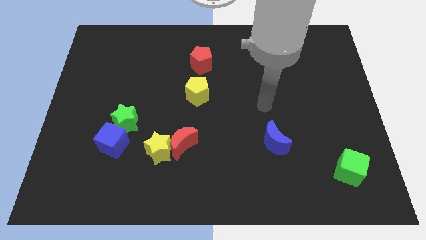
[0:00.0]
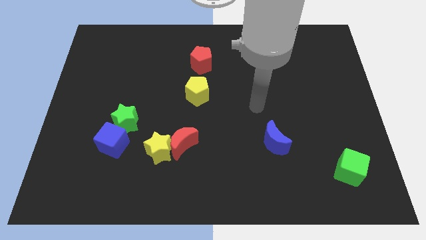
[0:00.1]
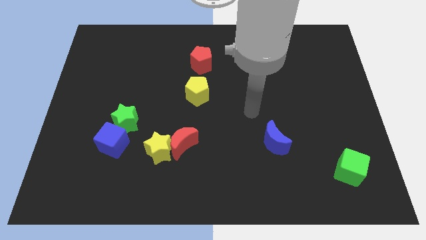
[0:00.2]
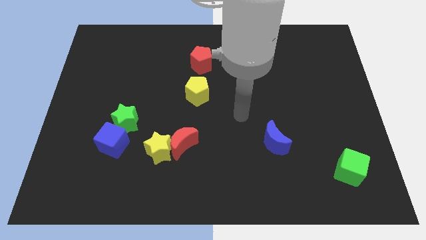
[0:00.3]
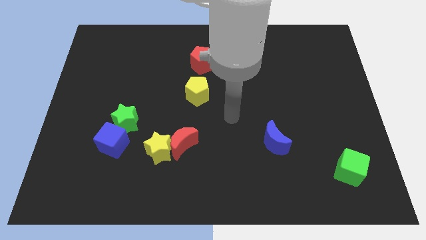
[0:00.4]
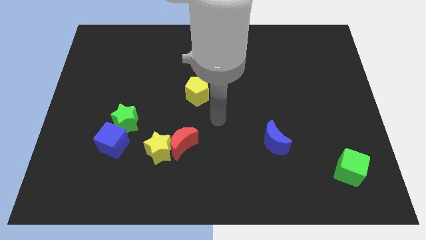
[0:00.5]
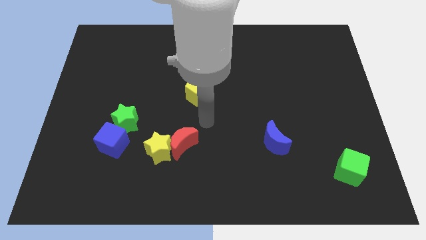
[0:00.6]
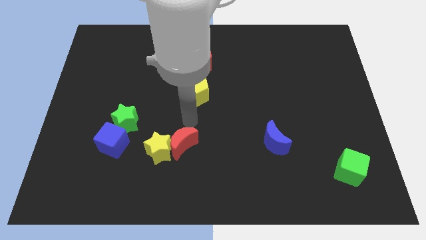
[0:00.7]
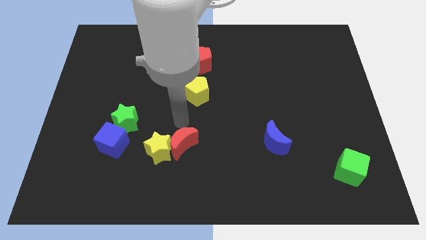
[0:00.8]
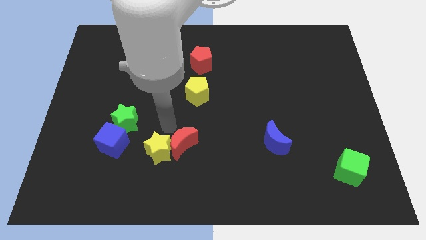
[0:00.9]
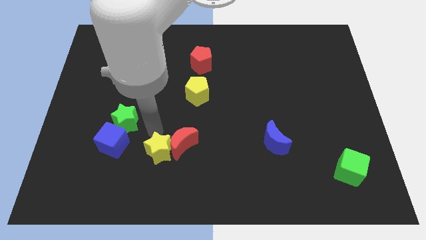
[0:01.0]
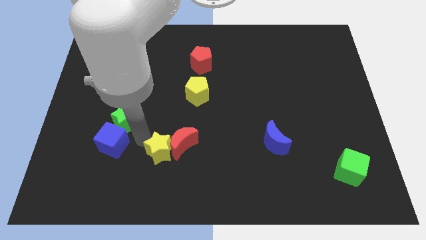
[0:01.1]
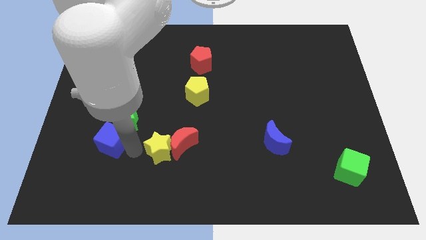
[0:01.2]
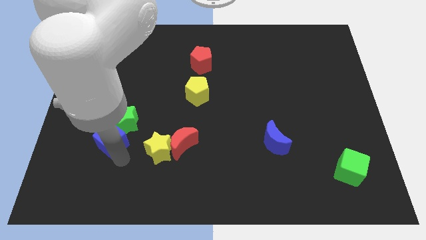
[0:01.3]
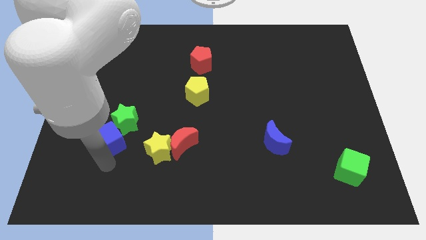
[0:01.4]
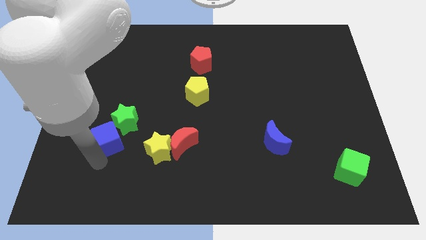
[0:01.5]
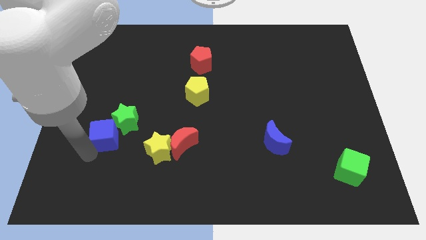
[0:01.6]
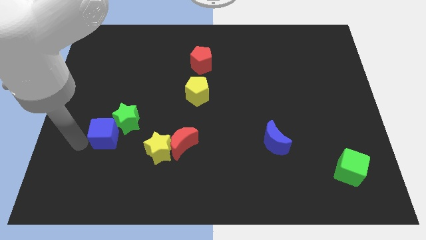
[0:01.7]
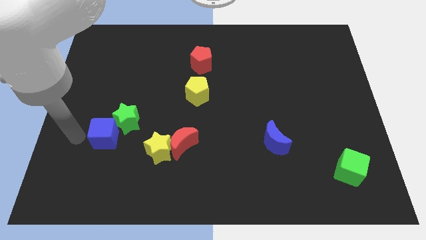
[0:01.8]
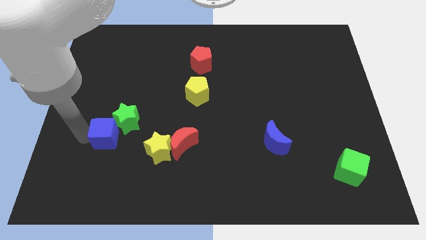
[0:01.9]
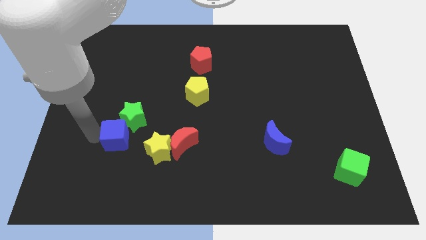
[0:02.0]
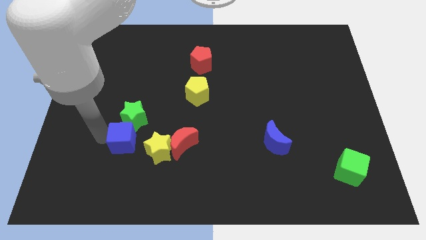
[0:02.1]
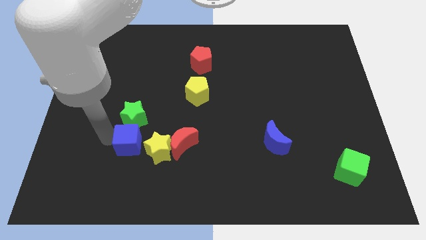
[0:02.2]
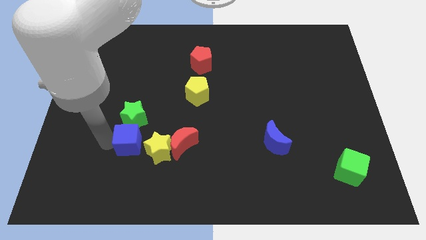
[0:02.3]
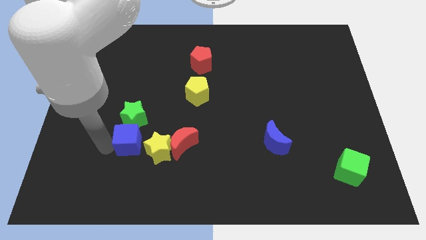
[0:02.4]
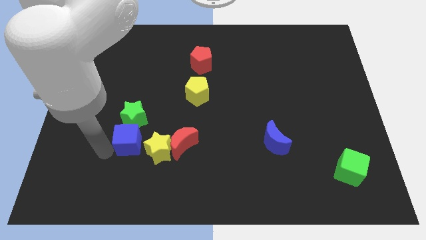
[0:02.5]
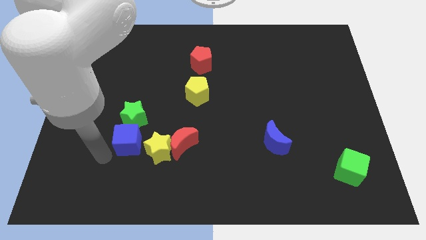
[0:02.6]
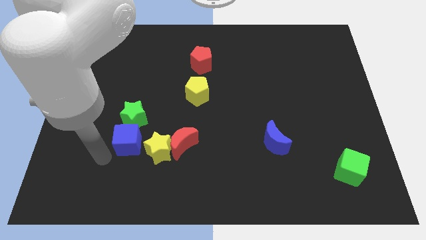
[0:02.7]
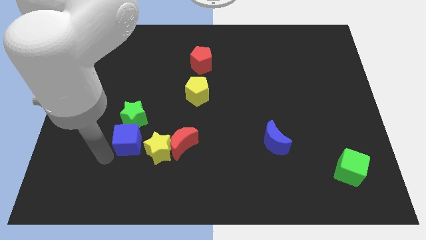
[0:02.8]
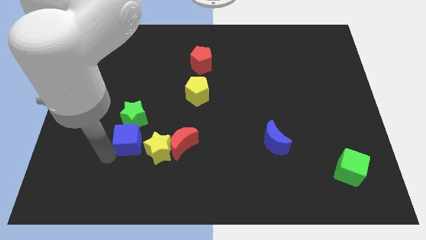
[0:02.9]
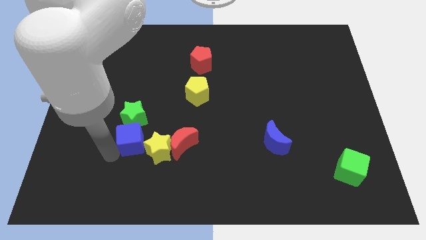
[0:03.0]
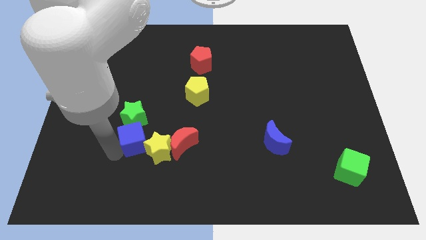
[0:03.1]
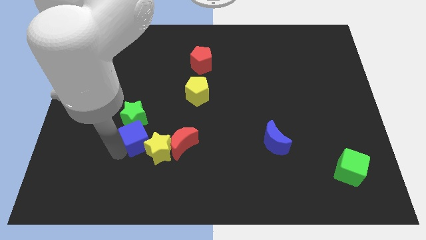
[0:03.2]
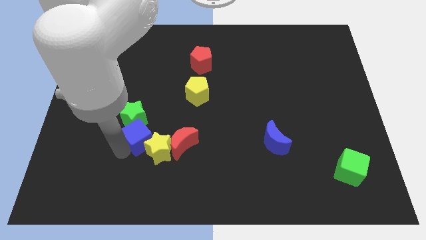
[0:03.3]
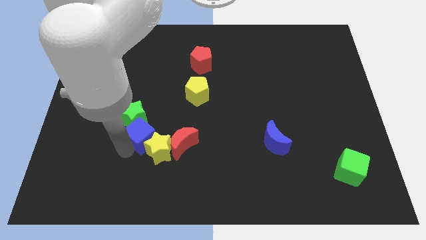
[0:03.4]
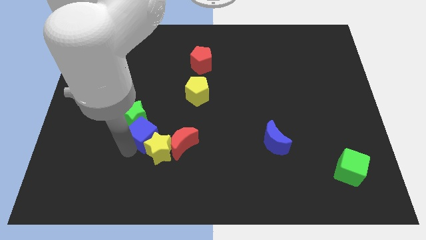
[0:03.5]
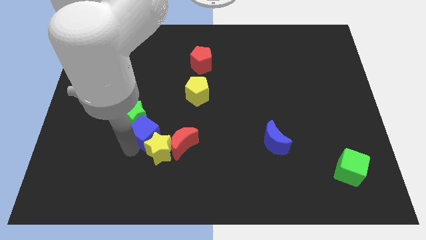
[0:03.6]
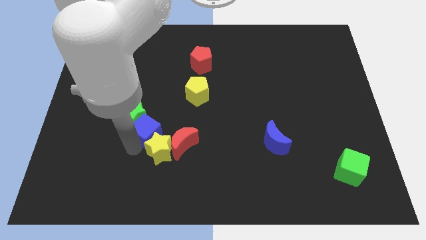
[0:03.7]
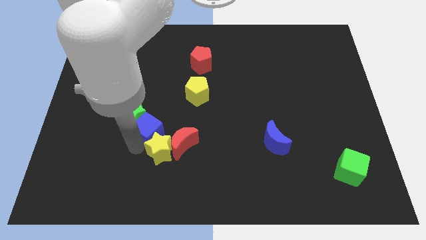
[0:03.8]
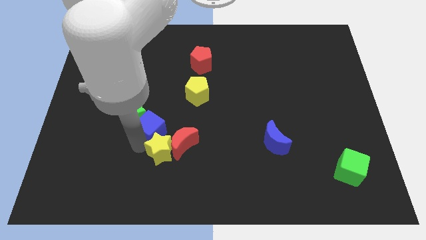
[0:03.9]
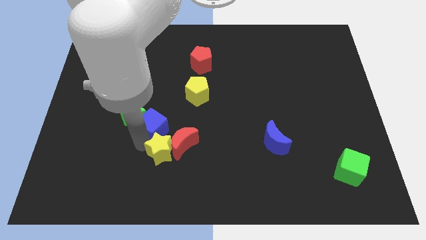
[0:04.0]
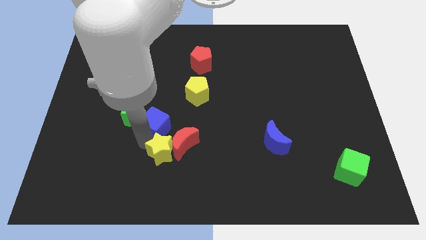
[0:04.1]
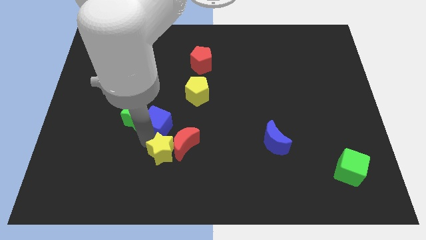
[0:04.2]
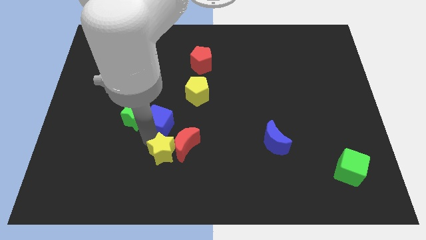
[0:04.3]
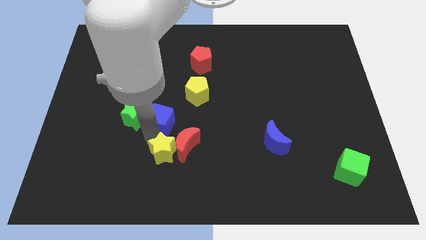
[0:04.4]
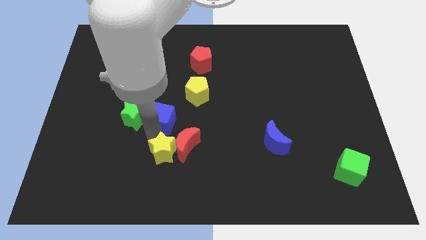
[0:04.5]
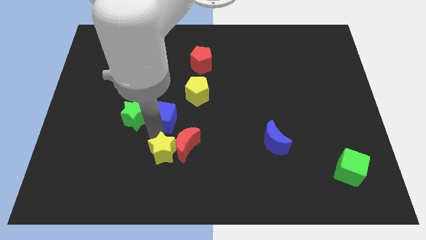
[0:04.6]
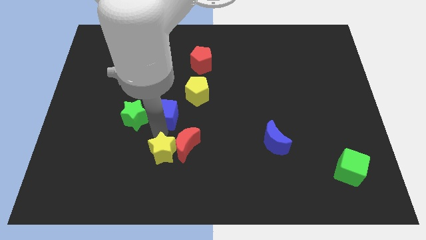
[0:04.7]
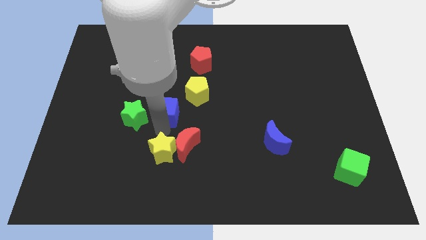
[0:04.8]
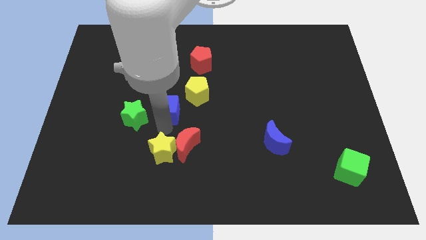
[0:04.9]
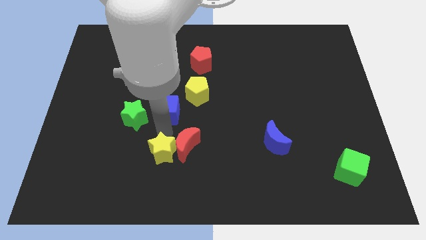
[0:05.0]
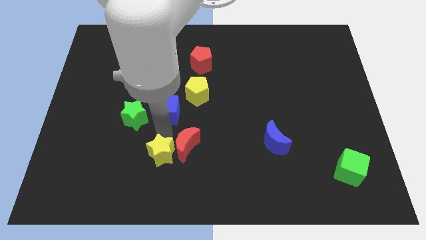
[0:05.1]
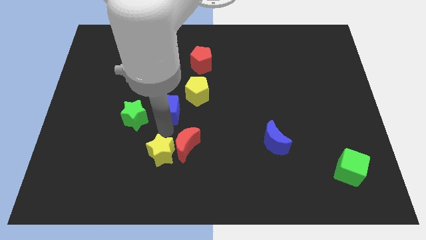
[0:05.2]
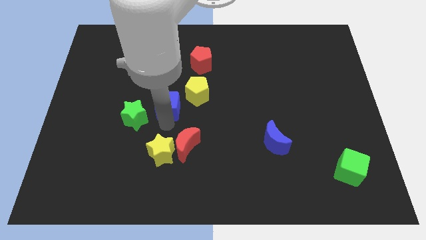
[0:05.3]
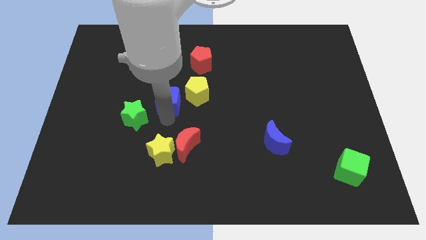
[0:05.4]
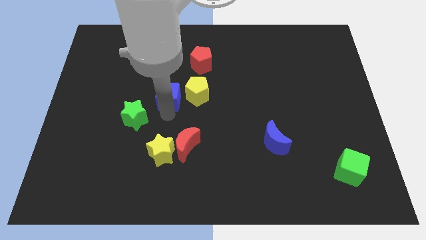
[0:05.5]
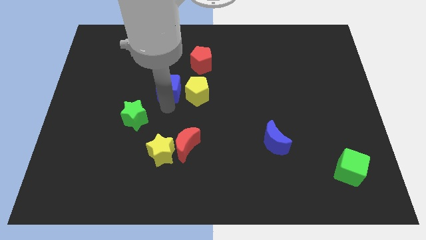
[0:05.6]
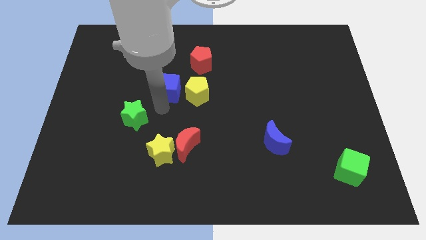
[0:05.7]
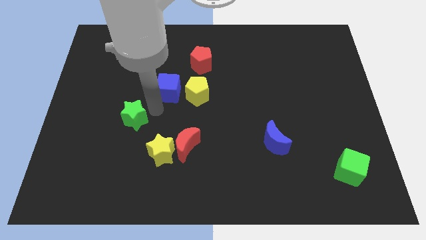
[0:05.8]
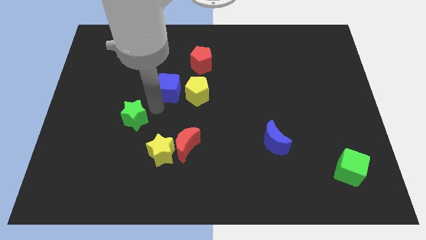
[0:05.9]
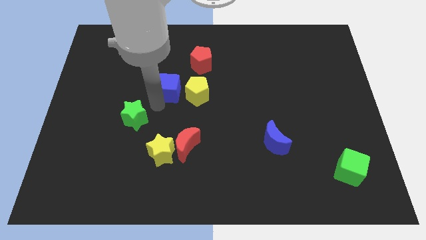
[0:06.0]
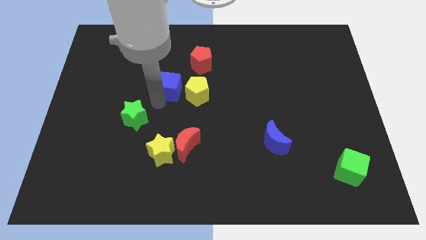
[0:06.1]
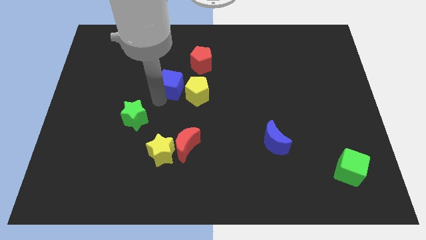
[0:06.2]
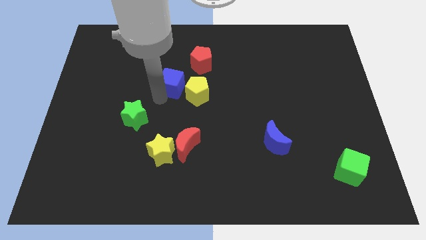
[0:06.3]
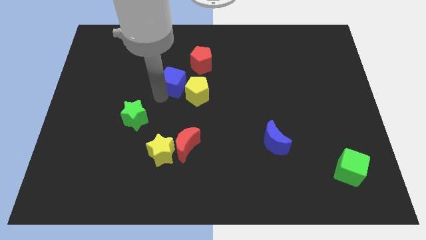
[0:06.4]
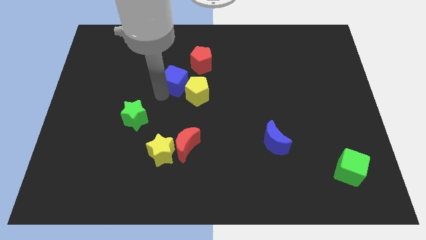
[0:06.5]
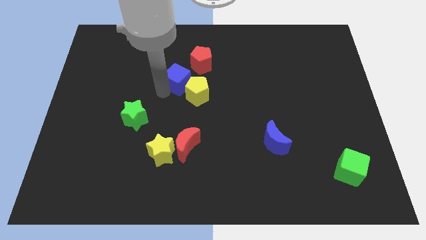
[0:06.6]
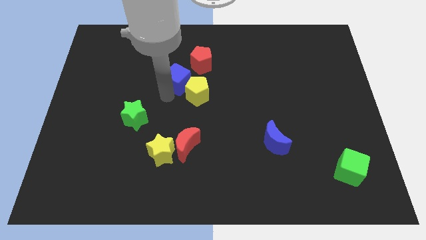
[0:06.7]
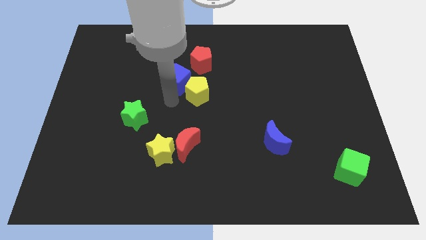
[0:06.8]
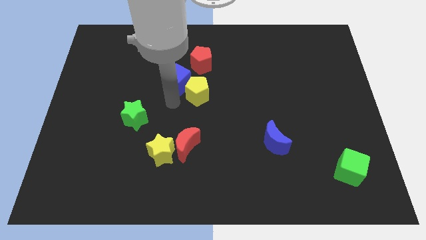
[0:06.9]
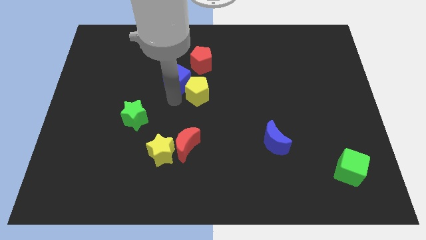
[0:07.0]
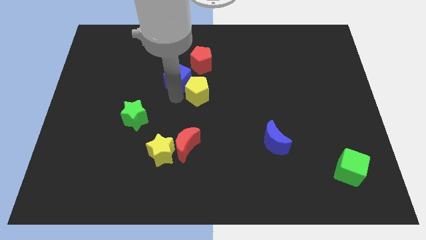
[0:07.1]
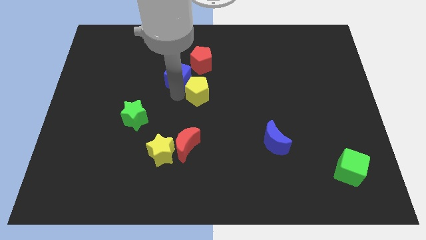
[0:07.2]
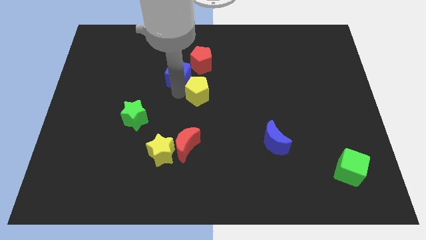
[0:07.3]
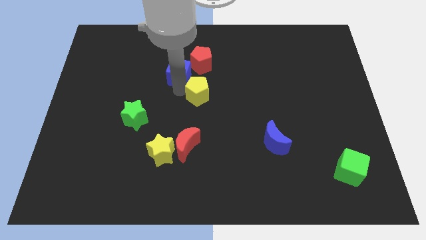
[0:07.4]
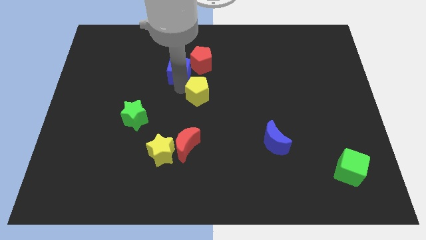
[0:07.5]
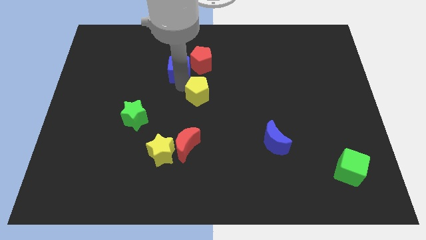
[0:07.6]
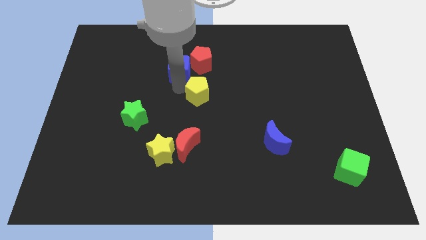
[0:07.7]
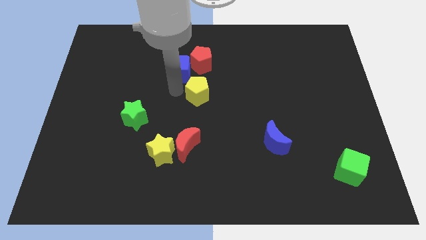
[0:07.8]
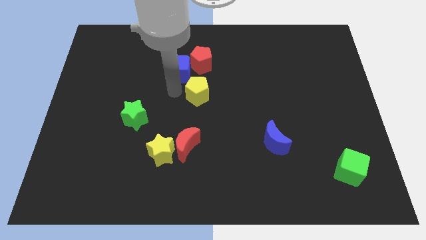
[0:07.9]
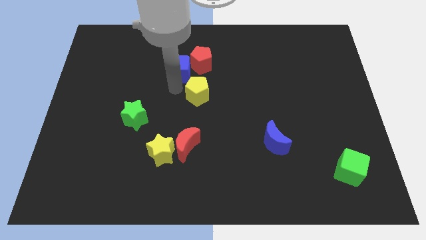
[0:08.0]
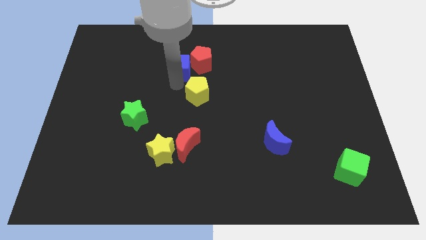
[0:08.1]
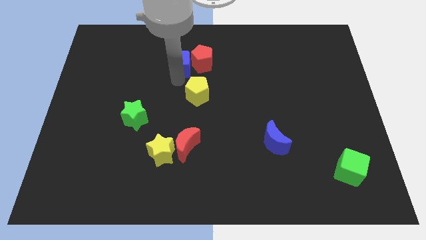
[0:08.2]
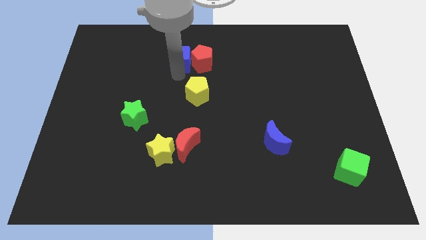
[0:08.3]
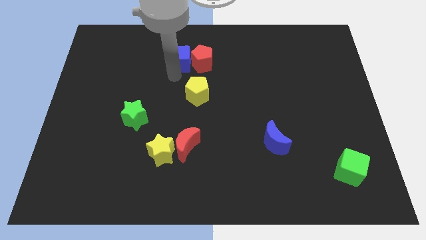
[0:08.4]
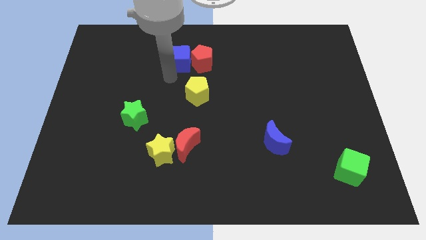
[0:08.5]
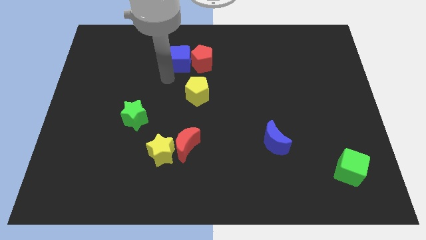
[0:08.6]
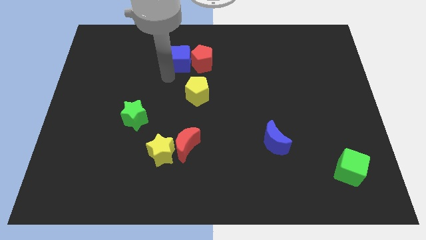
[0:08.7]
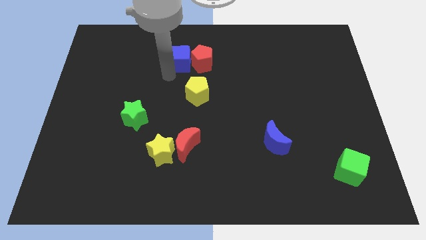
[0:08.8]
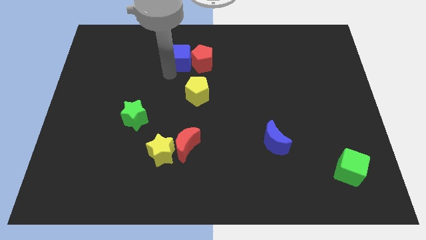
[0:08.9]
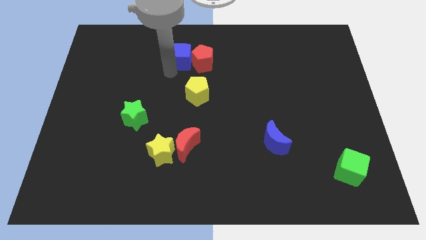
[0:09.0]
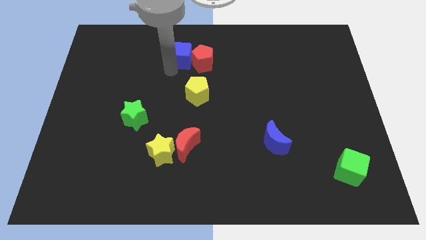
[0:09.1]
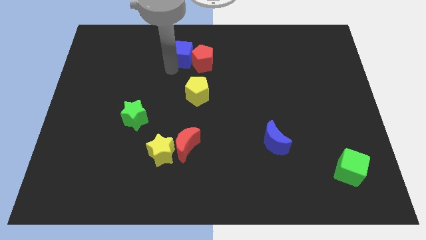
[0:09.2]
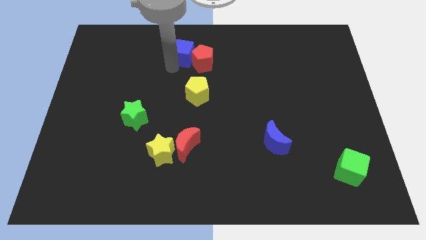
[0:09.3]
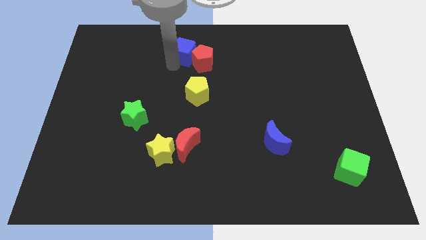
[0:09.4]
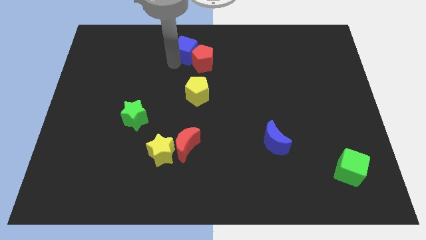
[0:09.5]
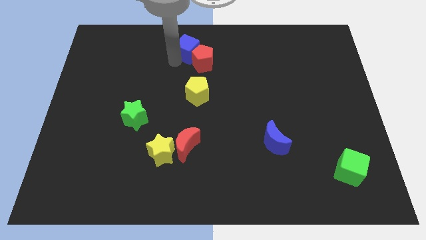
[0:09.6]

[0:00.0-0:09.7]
move the blue cube to the towards your base
